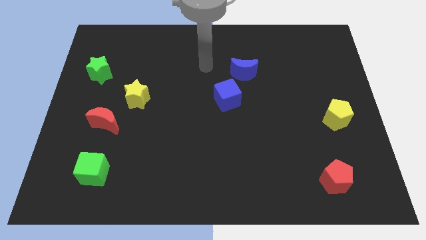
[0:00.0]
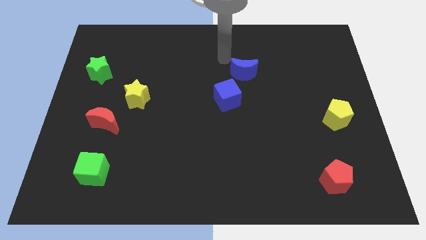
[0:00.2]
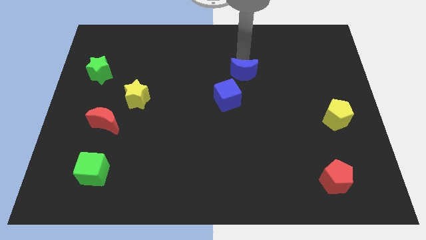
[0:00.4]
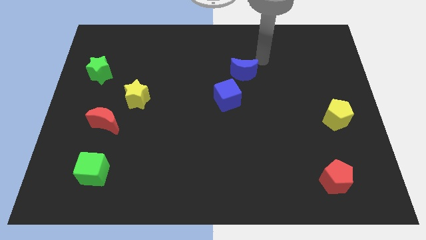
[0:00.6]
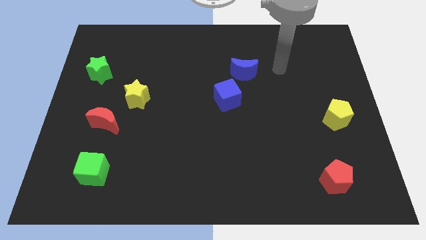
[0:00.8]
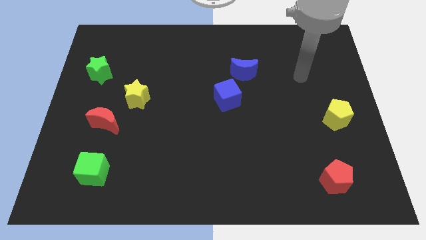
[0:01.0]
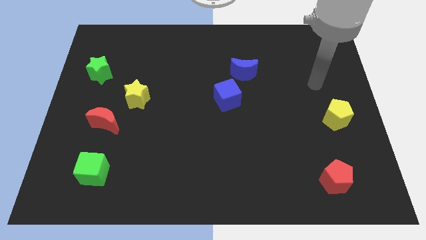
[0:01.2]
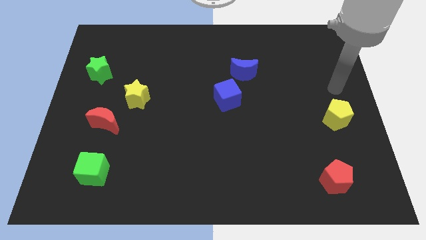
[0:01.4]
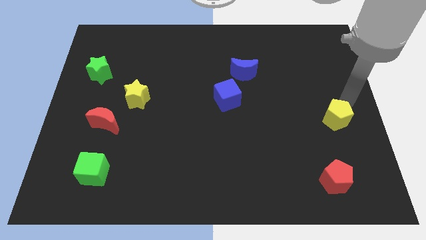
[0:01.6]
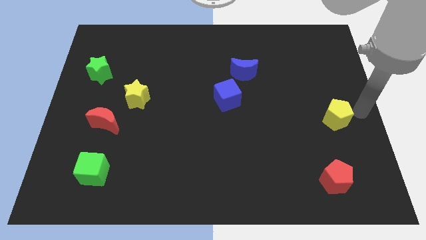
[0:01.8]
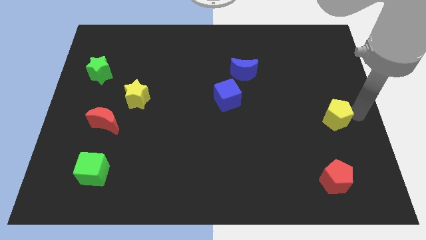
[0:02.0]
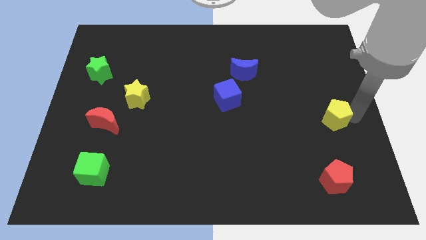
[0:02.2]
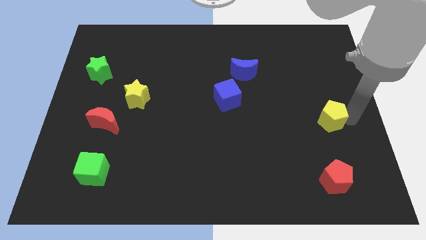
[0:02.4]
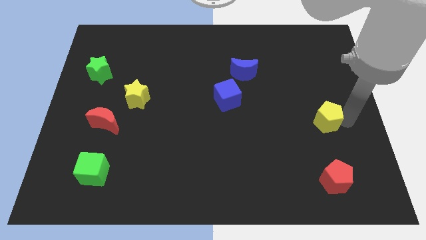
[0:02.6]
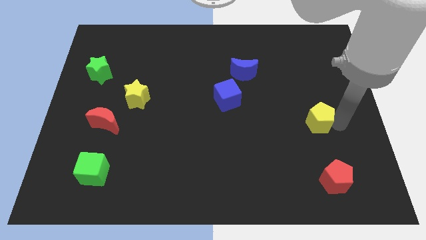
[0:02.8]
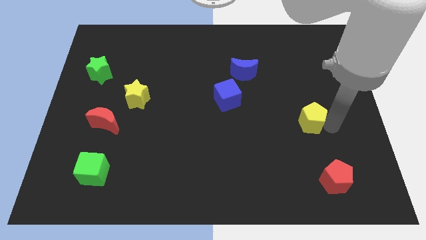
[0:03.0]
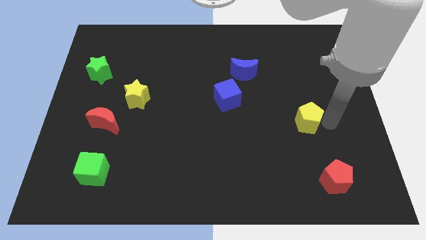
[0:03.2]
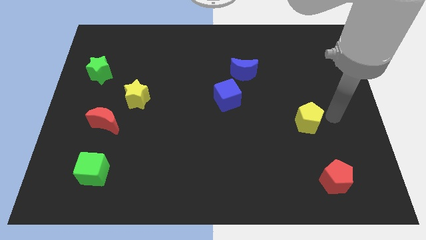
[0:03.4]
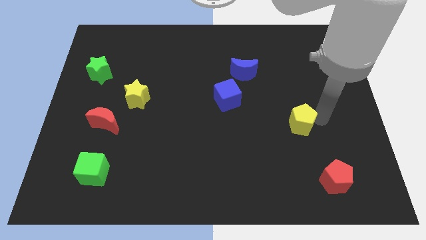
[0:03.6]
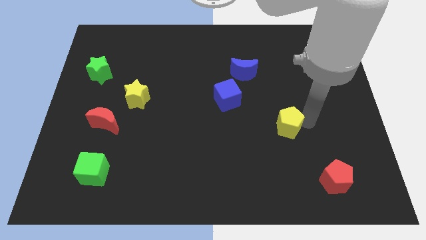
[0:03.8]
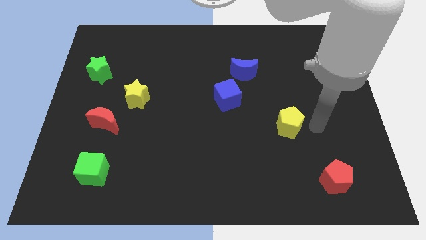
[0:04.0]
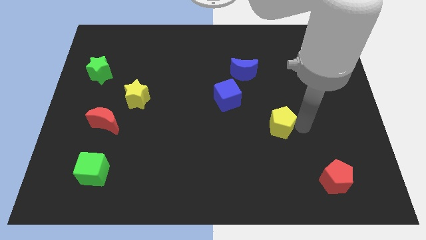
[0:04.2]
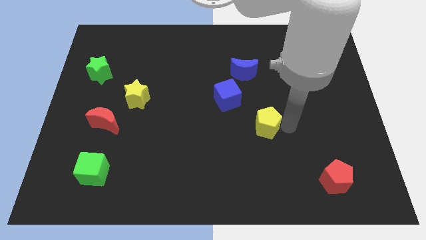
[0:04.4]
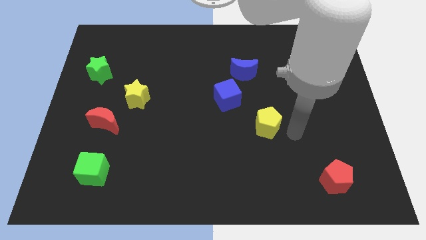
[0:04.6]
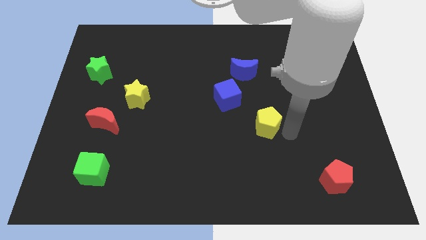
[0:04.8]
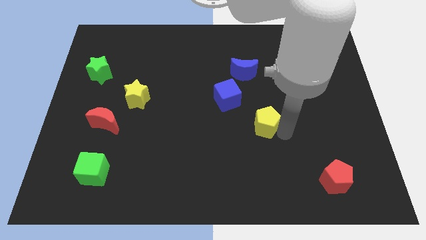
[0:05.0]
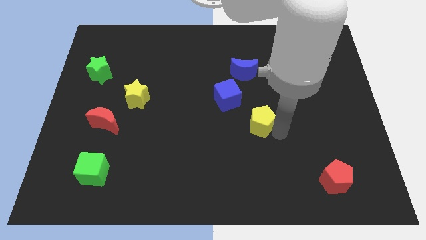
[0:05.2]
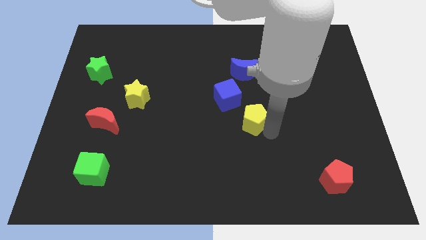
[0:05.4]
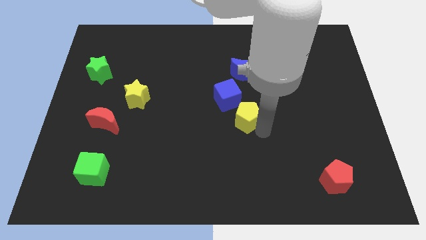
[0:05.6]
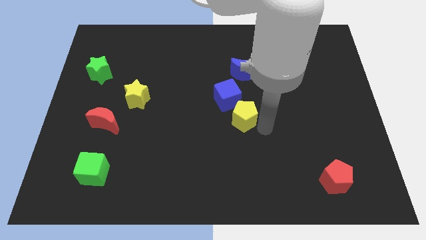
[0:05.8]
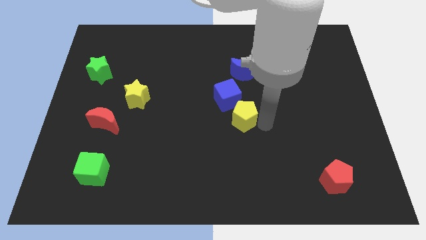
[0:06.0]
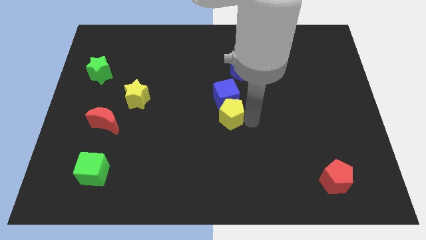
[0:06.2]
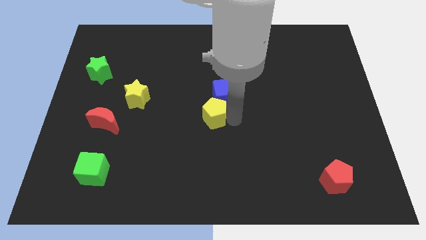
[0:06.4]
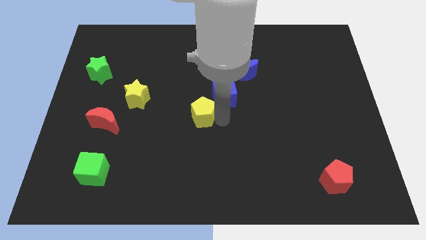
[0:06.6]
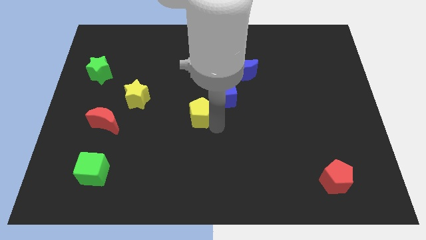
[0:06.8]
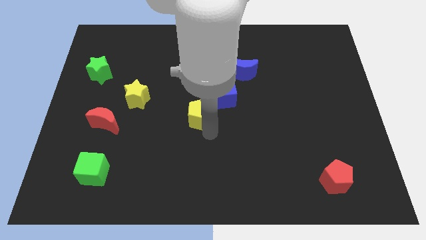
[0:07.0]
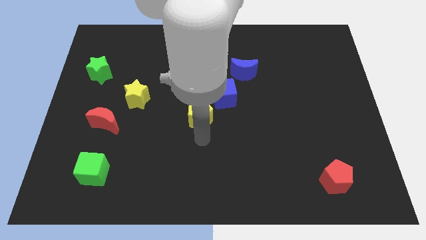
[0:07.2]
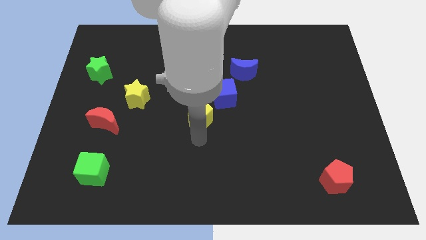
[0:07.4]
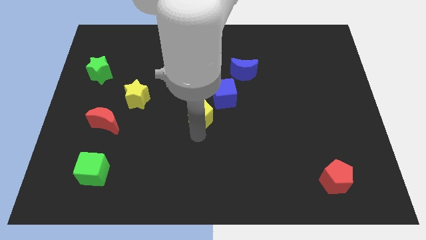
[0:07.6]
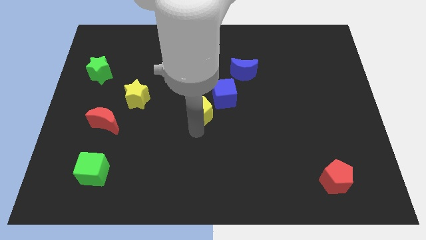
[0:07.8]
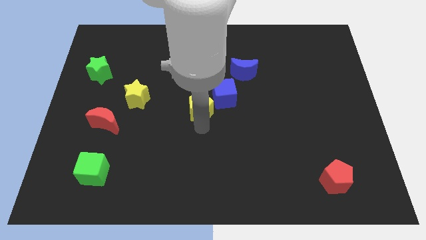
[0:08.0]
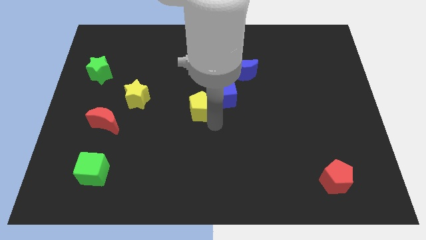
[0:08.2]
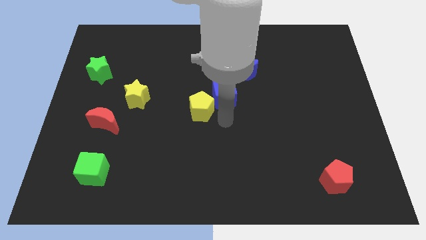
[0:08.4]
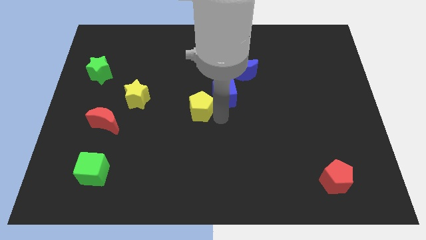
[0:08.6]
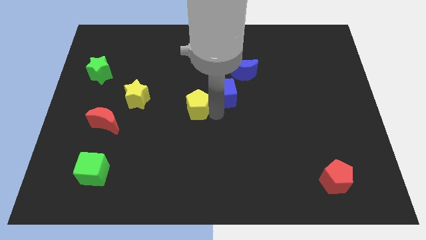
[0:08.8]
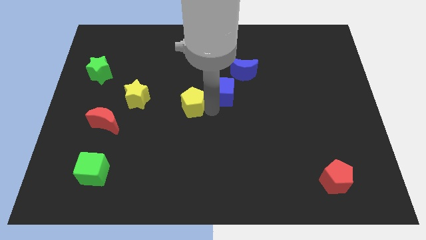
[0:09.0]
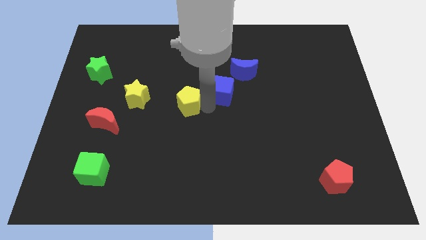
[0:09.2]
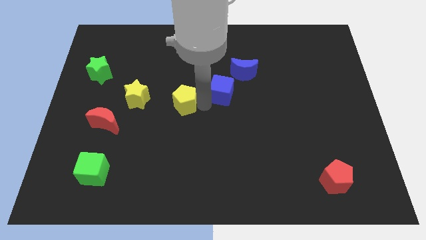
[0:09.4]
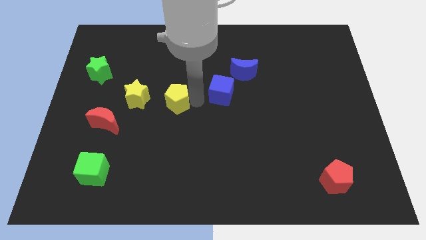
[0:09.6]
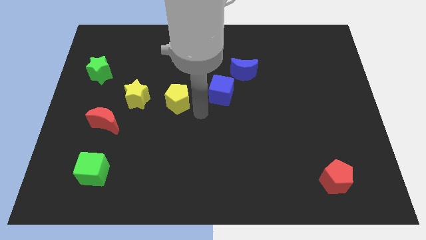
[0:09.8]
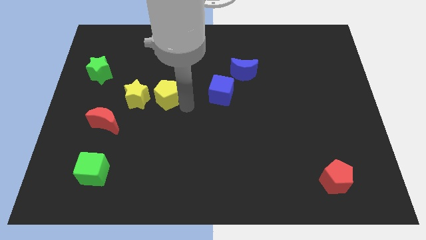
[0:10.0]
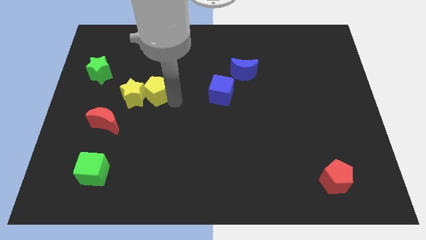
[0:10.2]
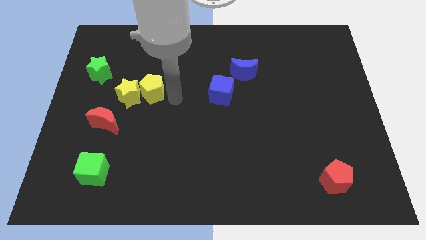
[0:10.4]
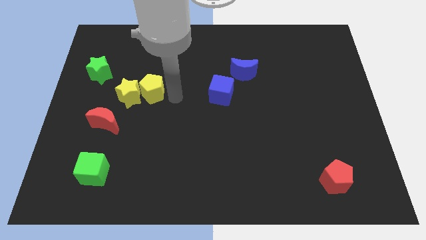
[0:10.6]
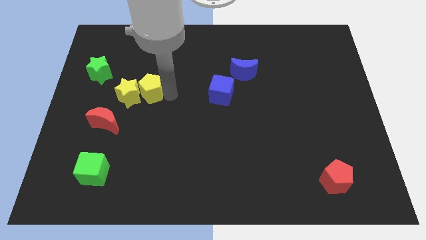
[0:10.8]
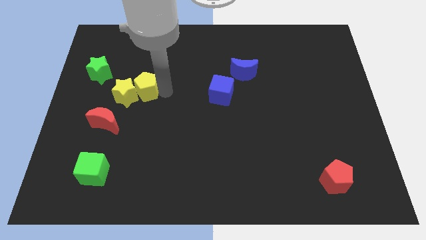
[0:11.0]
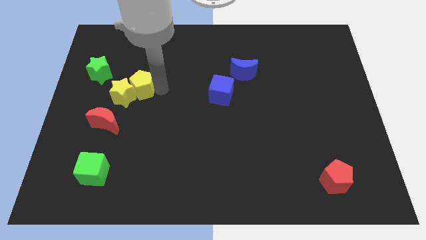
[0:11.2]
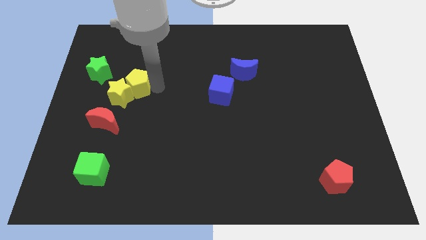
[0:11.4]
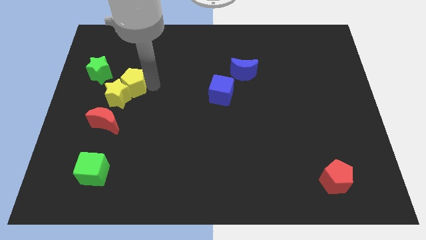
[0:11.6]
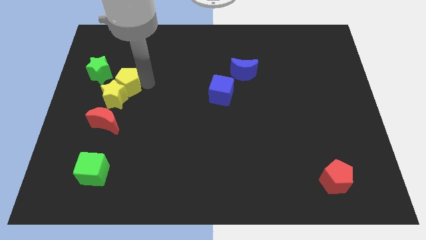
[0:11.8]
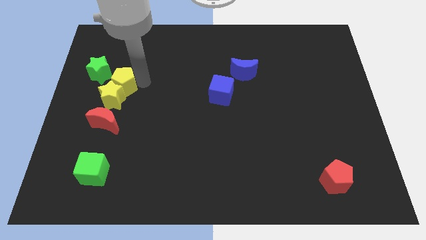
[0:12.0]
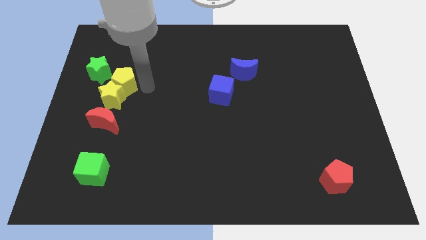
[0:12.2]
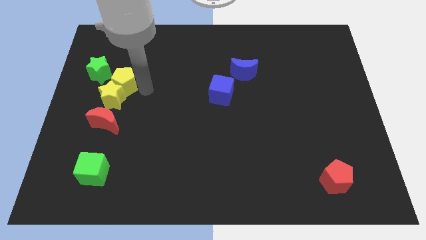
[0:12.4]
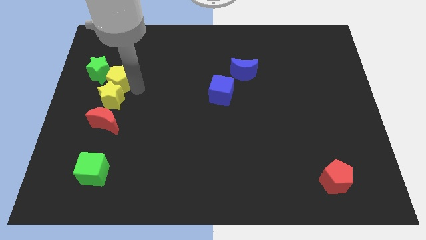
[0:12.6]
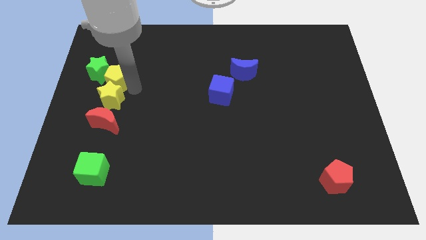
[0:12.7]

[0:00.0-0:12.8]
move the yellow pentagon next to the green star

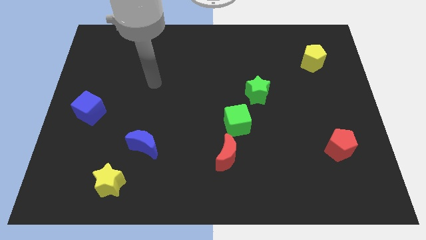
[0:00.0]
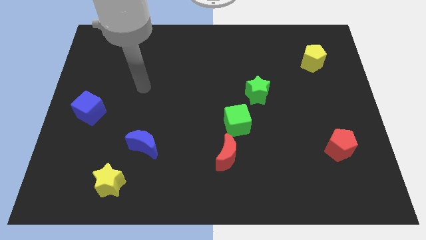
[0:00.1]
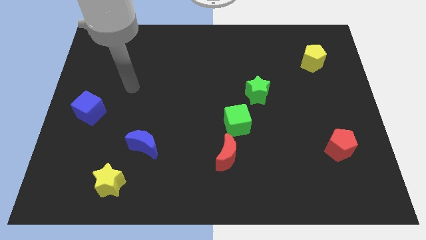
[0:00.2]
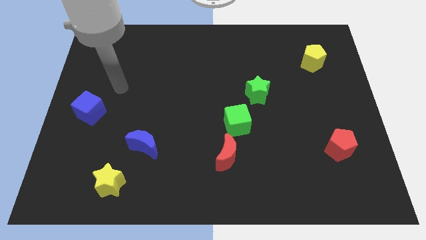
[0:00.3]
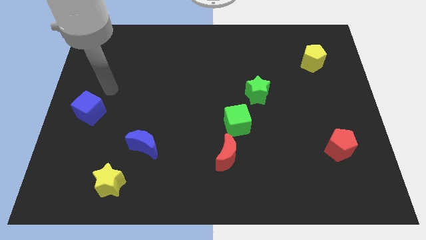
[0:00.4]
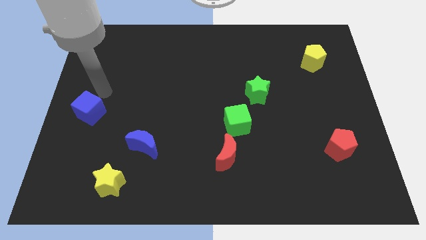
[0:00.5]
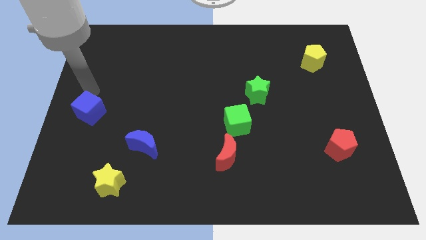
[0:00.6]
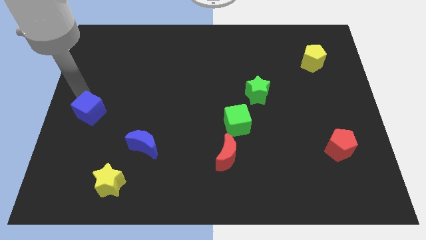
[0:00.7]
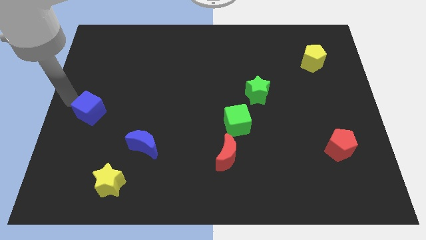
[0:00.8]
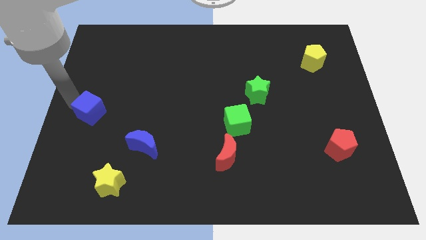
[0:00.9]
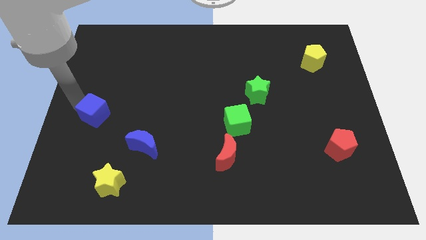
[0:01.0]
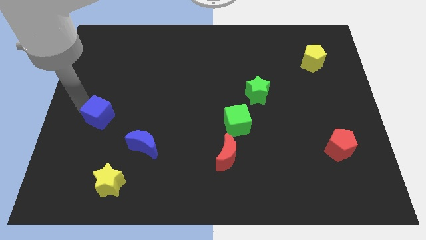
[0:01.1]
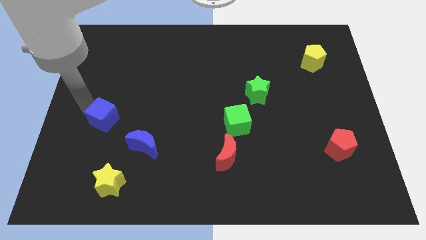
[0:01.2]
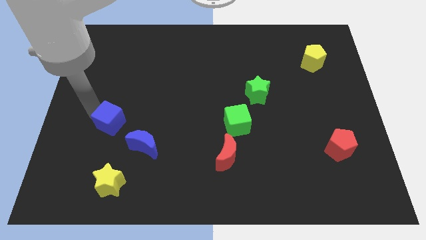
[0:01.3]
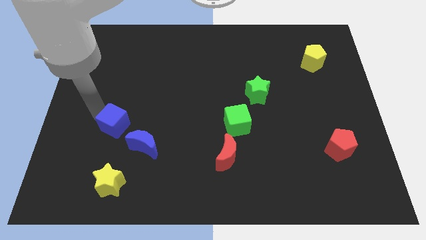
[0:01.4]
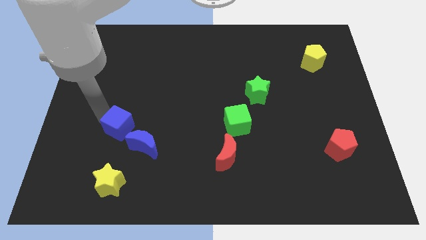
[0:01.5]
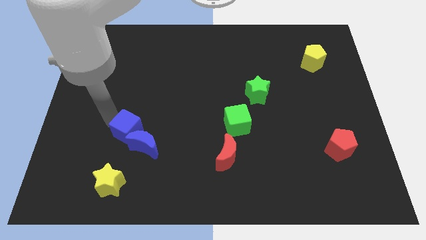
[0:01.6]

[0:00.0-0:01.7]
push the blue cube close to the blue moon
